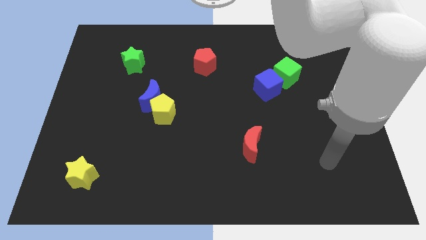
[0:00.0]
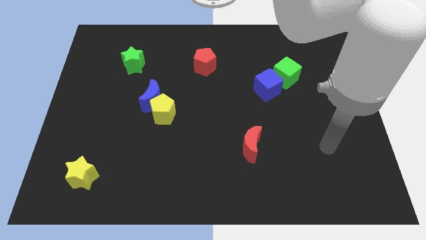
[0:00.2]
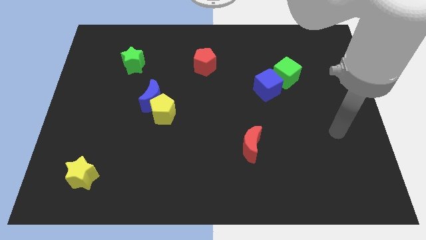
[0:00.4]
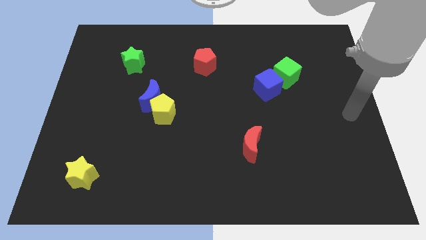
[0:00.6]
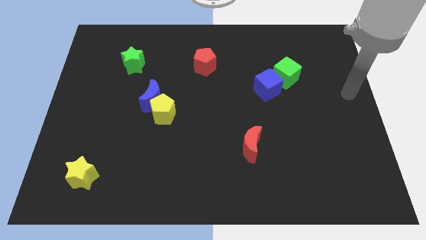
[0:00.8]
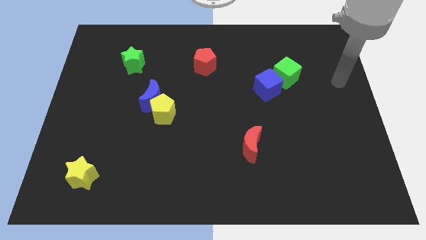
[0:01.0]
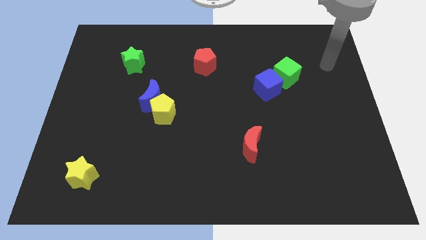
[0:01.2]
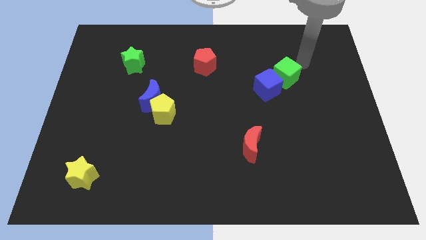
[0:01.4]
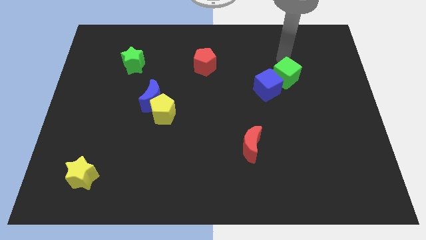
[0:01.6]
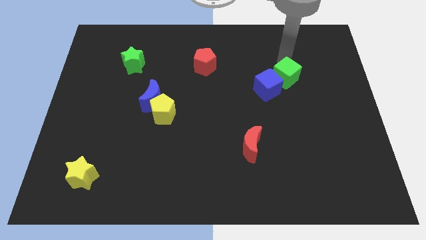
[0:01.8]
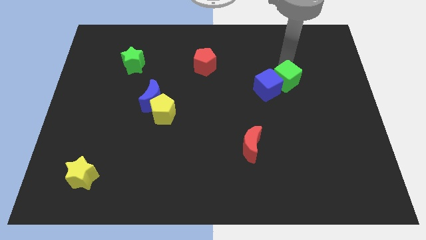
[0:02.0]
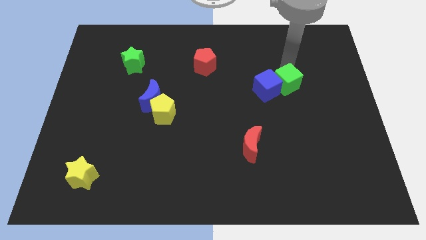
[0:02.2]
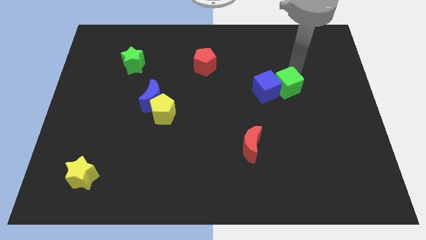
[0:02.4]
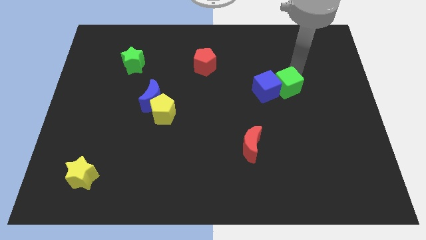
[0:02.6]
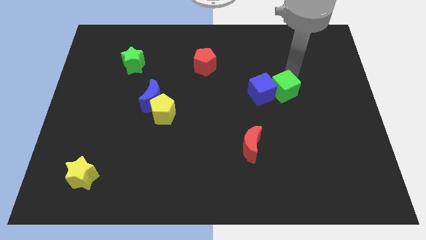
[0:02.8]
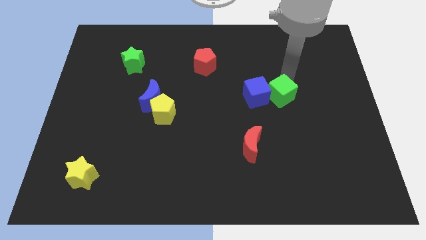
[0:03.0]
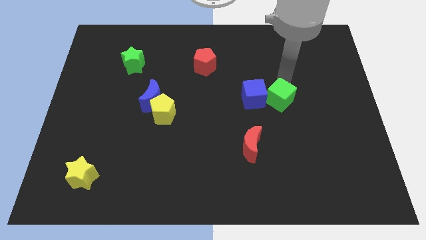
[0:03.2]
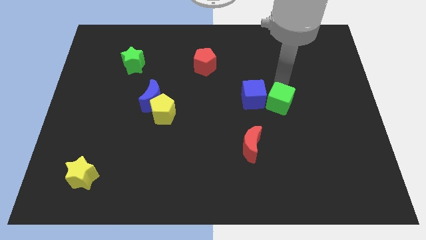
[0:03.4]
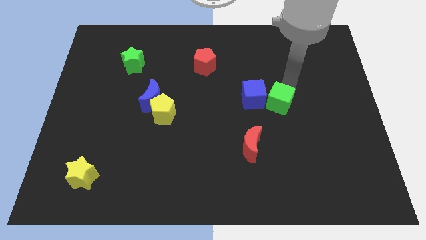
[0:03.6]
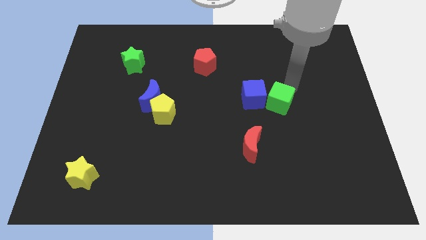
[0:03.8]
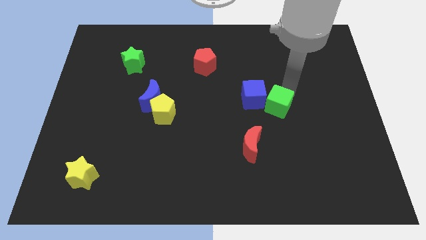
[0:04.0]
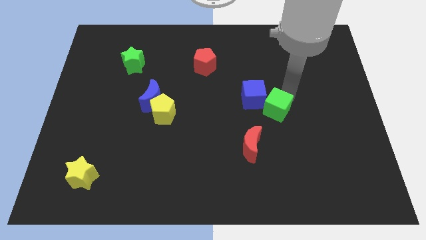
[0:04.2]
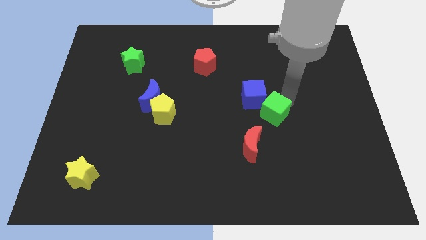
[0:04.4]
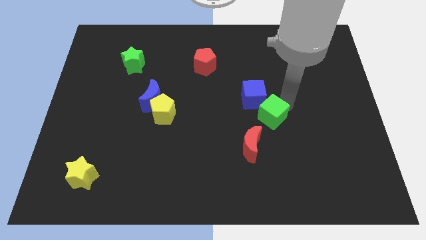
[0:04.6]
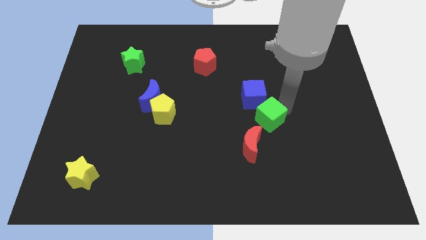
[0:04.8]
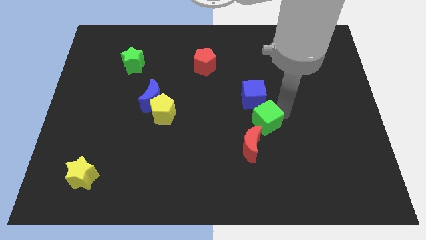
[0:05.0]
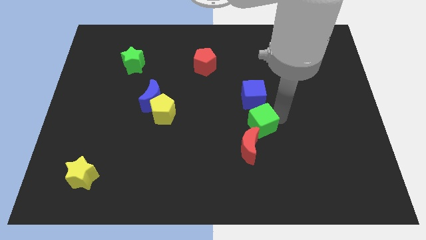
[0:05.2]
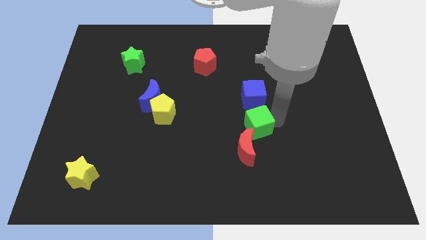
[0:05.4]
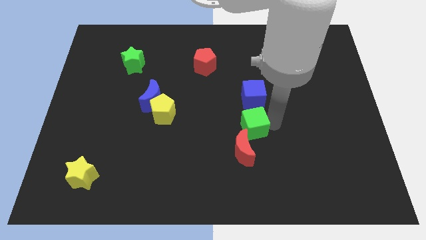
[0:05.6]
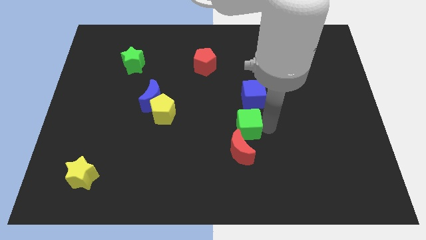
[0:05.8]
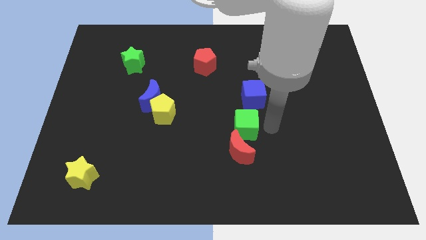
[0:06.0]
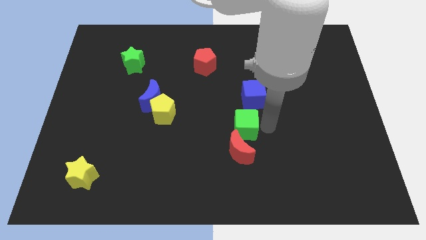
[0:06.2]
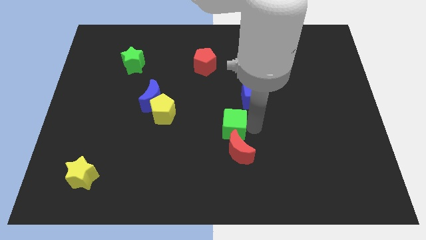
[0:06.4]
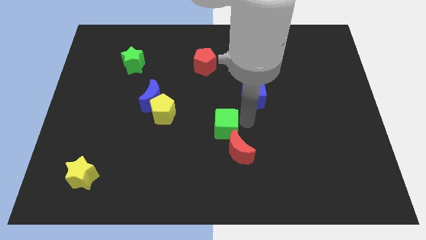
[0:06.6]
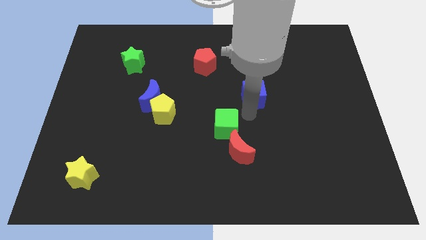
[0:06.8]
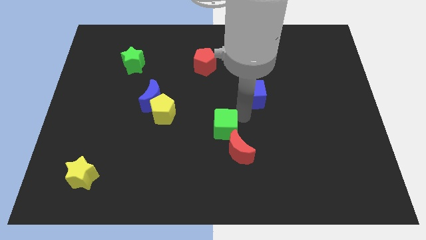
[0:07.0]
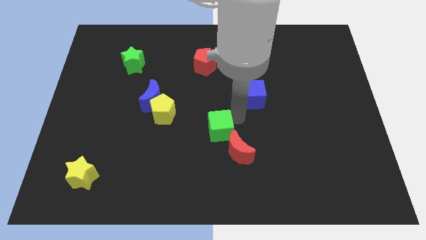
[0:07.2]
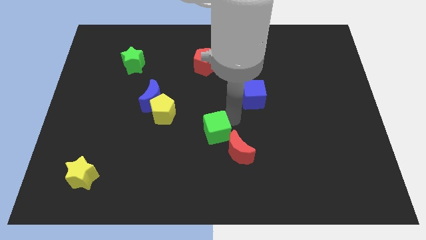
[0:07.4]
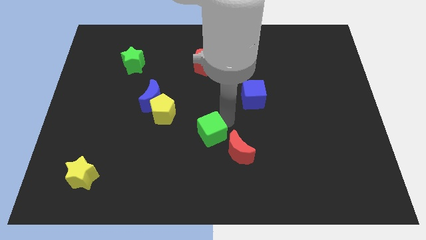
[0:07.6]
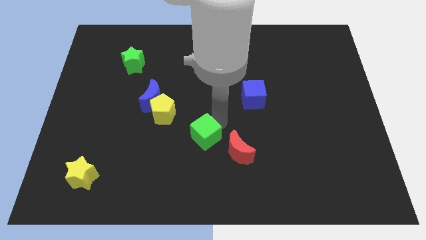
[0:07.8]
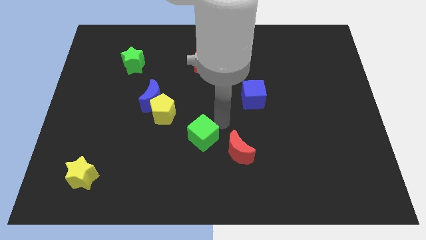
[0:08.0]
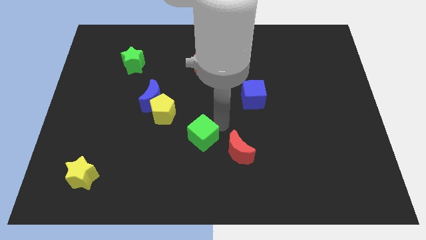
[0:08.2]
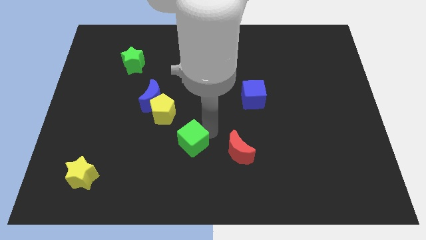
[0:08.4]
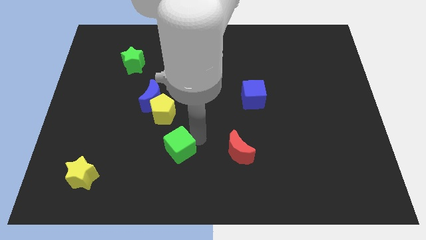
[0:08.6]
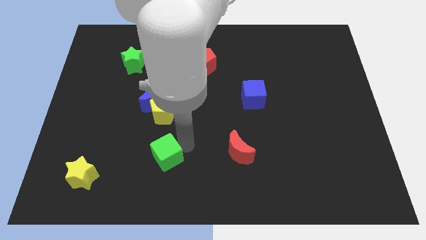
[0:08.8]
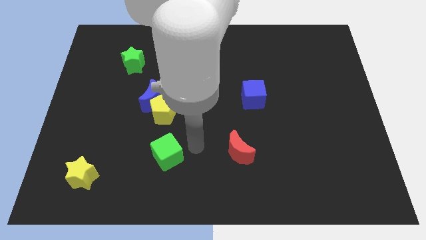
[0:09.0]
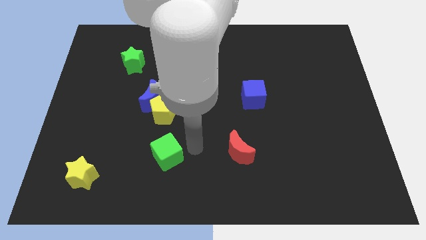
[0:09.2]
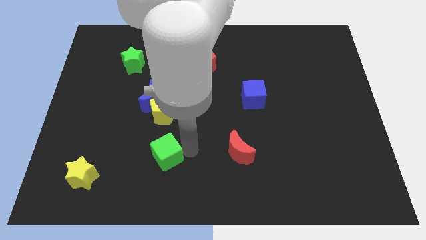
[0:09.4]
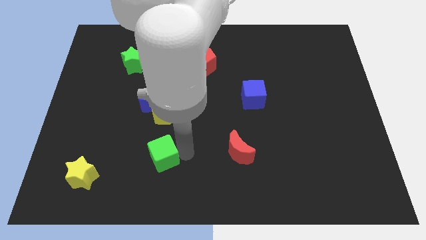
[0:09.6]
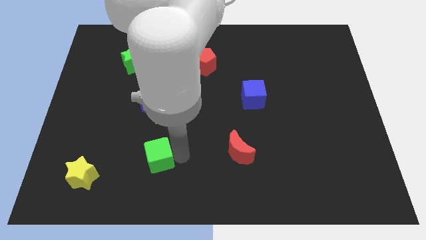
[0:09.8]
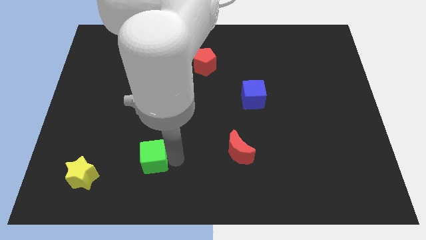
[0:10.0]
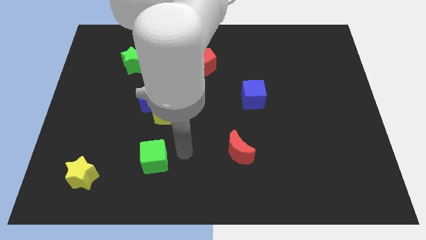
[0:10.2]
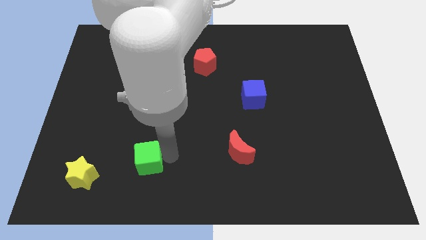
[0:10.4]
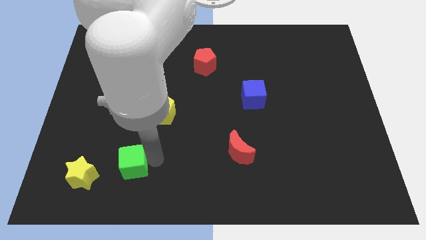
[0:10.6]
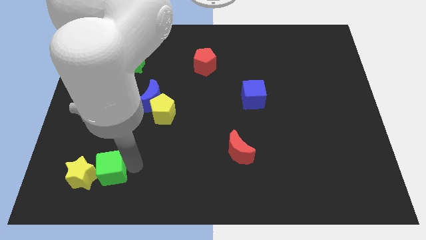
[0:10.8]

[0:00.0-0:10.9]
push the green cube close to the yellow star

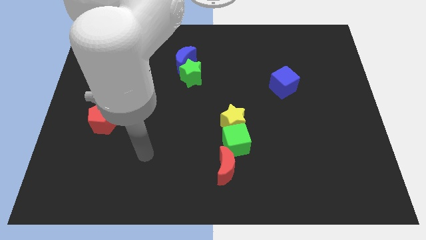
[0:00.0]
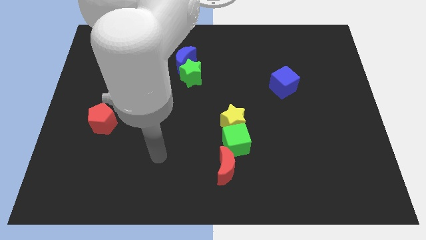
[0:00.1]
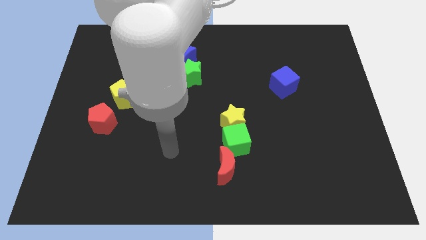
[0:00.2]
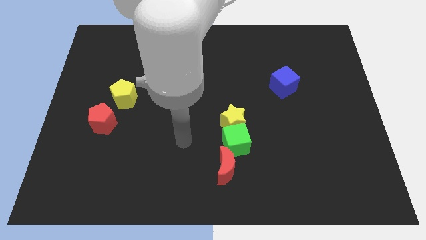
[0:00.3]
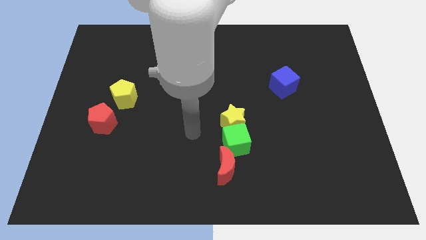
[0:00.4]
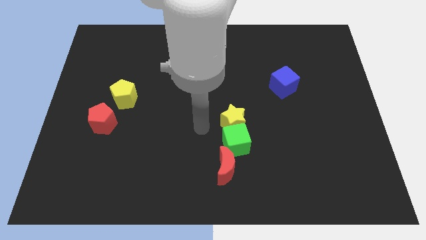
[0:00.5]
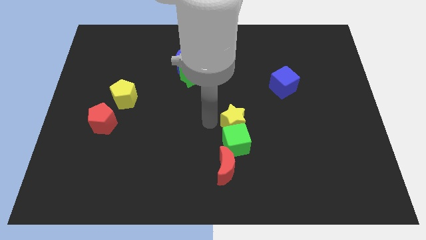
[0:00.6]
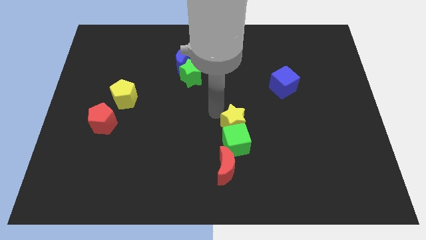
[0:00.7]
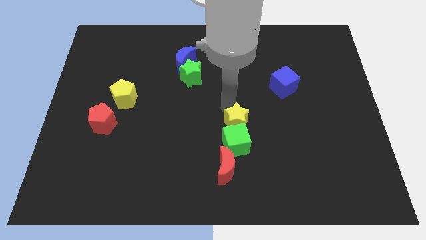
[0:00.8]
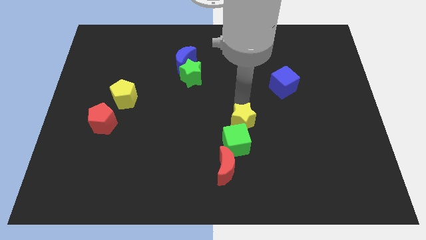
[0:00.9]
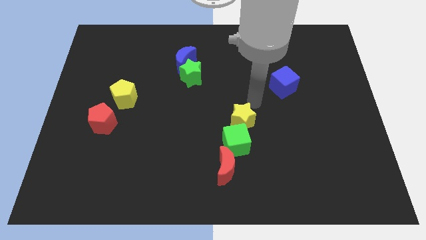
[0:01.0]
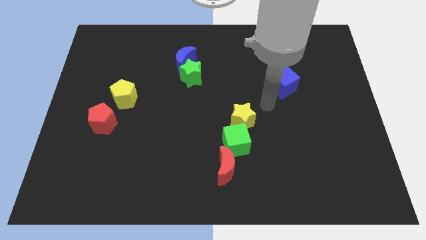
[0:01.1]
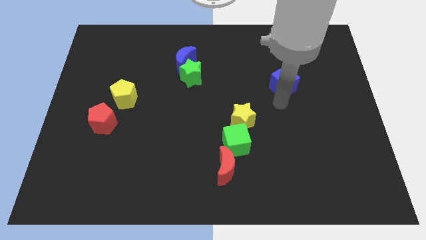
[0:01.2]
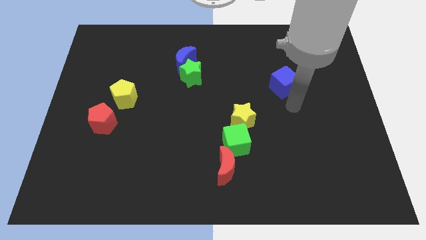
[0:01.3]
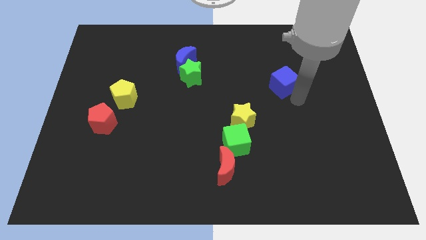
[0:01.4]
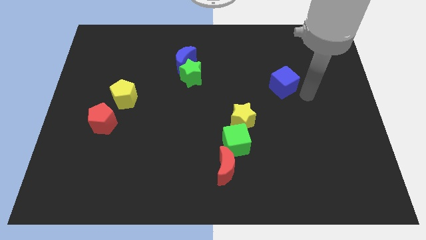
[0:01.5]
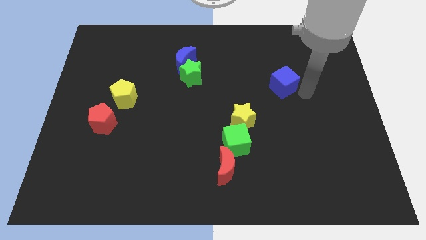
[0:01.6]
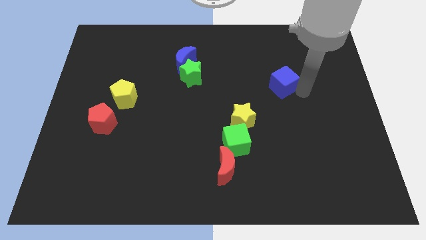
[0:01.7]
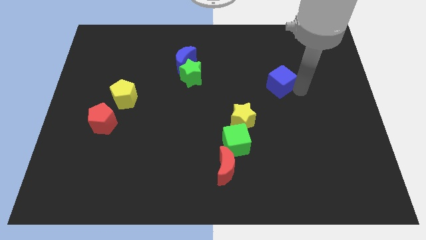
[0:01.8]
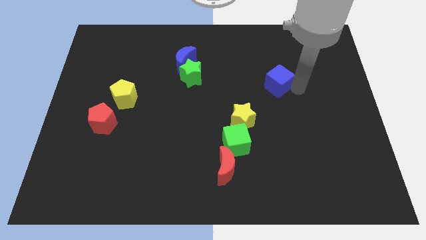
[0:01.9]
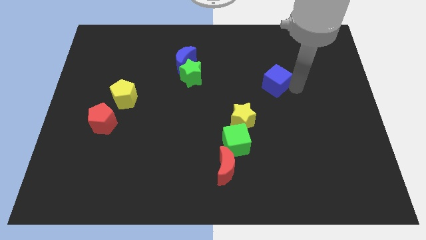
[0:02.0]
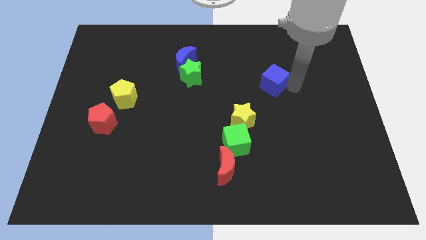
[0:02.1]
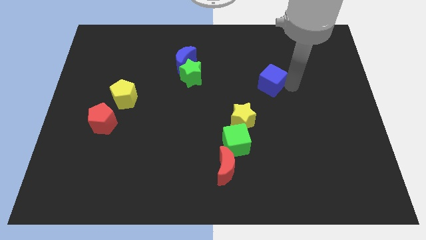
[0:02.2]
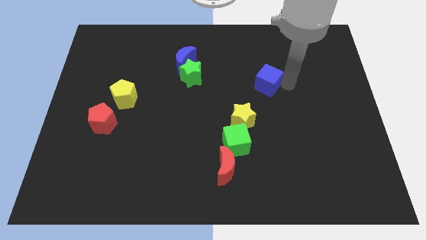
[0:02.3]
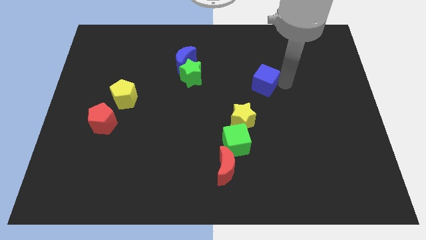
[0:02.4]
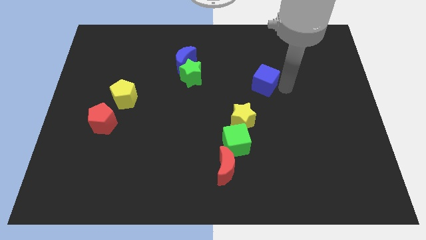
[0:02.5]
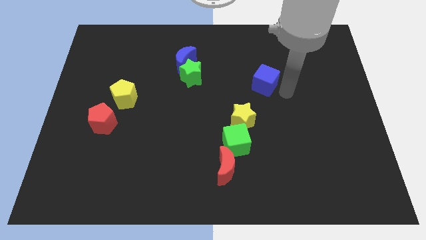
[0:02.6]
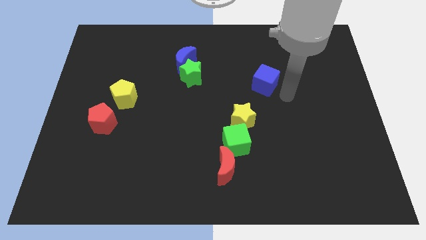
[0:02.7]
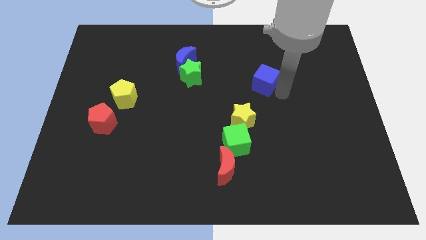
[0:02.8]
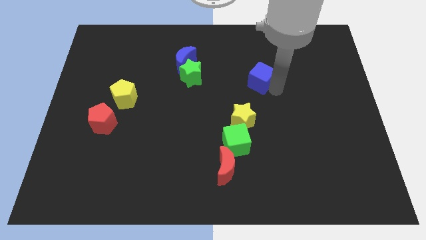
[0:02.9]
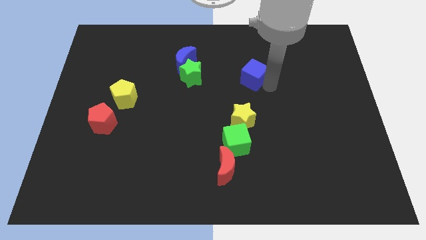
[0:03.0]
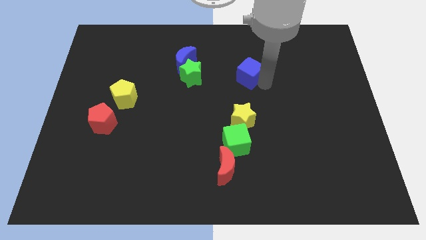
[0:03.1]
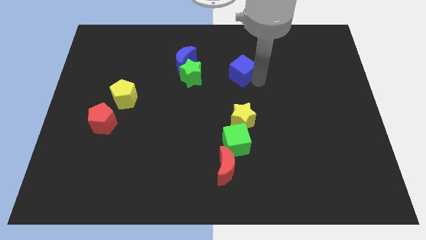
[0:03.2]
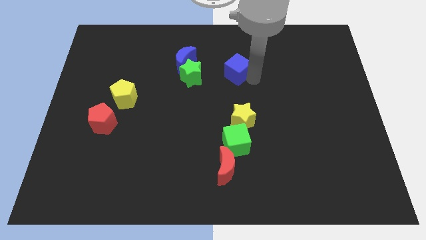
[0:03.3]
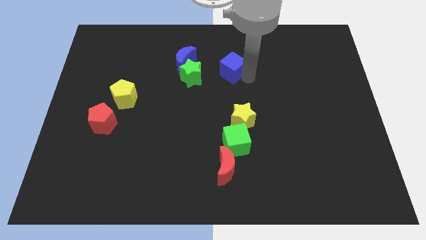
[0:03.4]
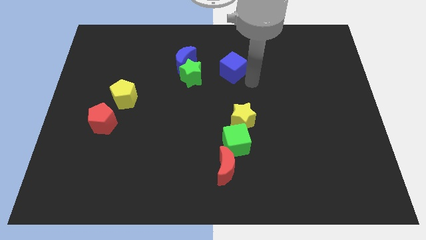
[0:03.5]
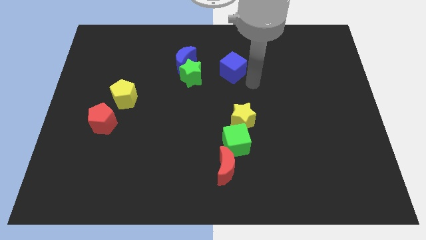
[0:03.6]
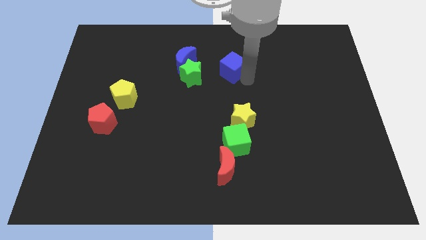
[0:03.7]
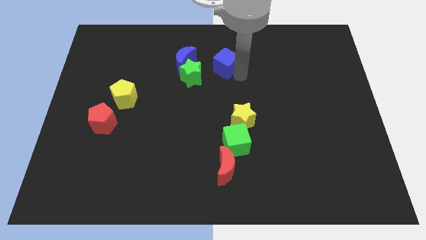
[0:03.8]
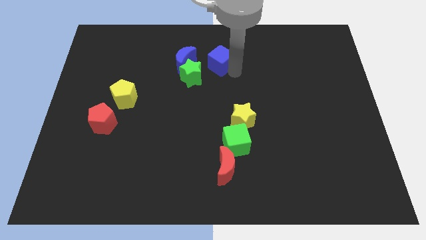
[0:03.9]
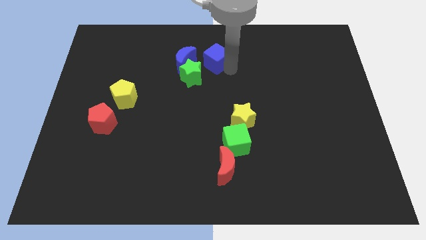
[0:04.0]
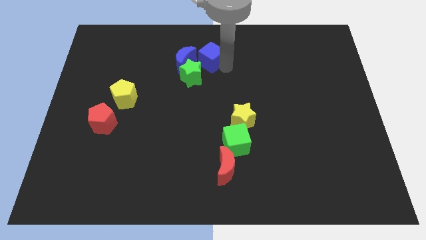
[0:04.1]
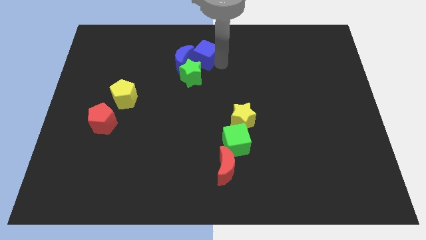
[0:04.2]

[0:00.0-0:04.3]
push the blue cube close to the blue moon
